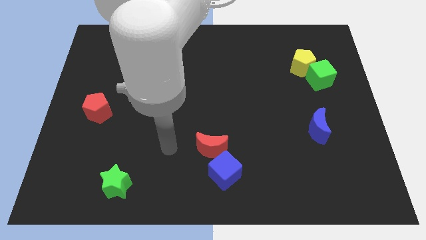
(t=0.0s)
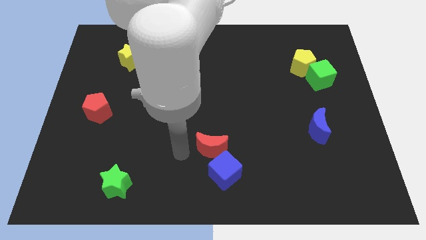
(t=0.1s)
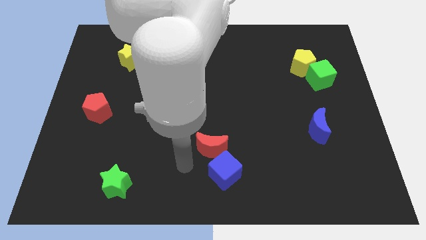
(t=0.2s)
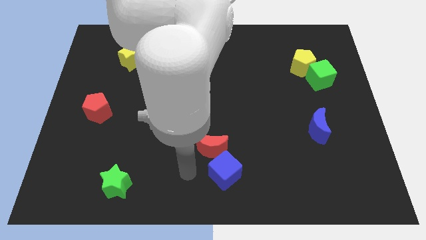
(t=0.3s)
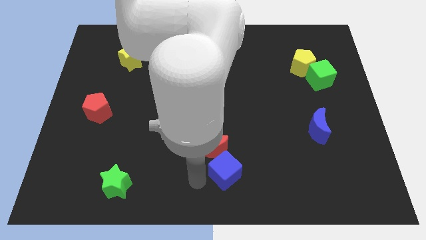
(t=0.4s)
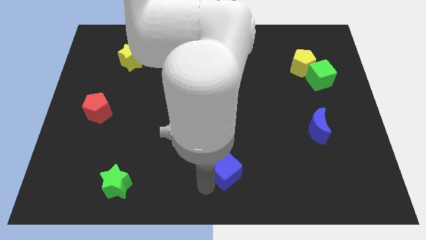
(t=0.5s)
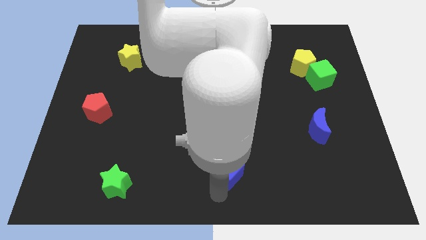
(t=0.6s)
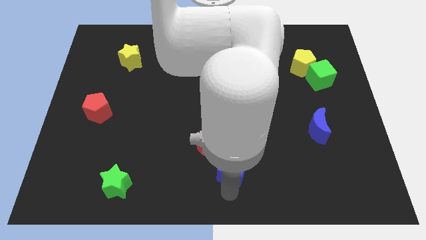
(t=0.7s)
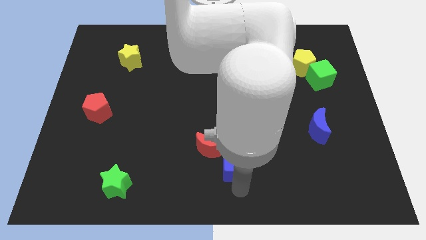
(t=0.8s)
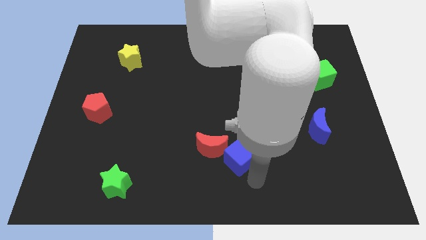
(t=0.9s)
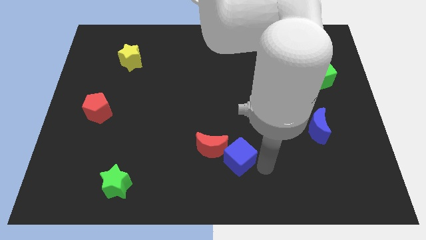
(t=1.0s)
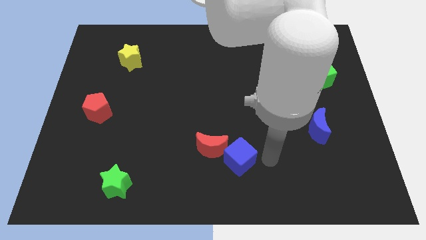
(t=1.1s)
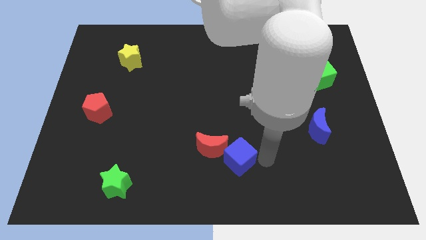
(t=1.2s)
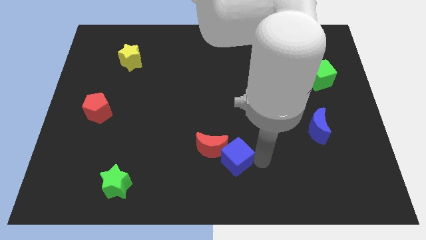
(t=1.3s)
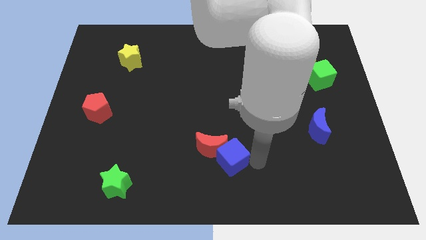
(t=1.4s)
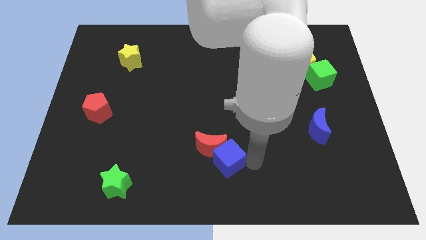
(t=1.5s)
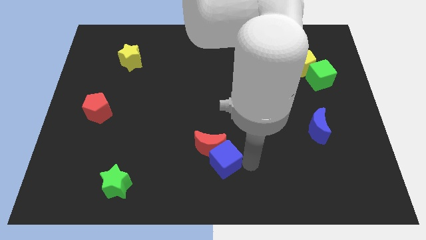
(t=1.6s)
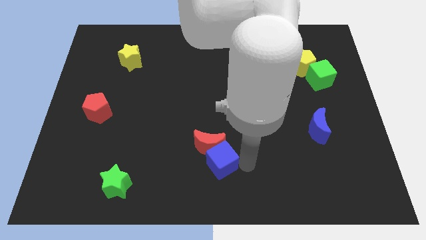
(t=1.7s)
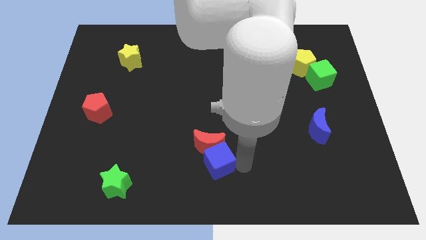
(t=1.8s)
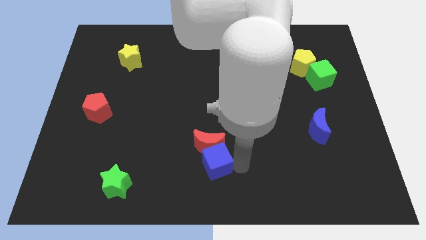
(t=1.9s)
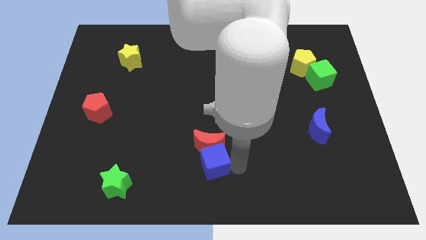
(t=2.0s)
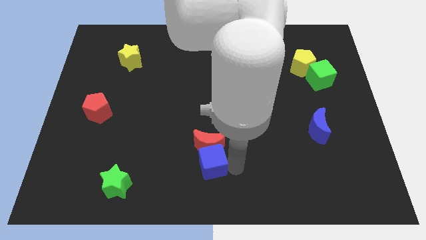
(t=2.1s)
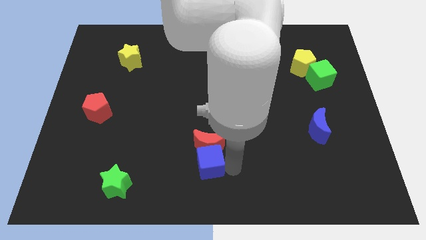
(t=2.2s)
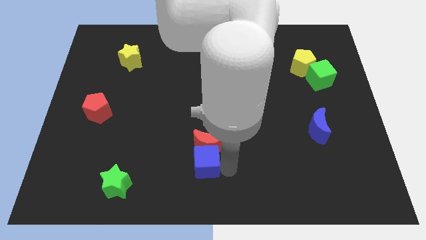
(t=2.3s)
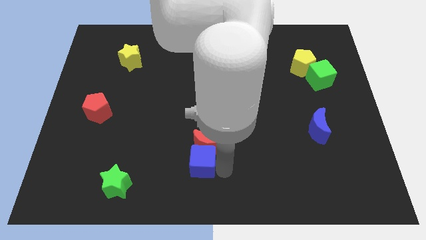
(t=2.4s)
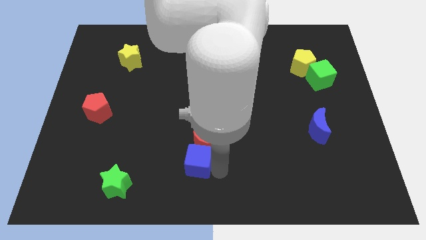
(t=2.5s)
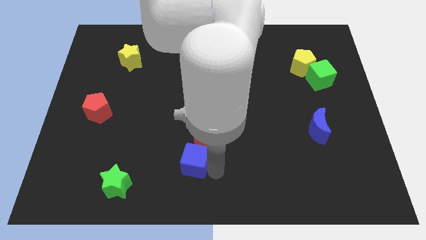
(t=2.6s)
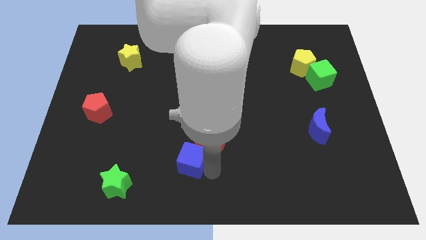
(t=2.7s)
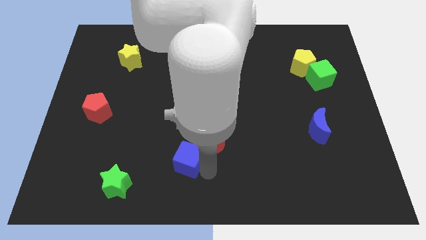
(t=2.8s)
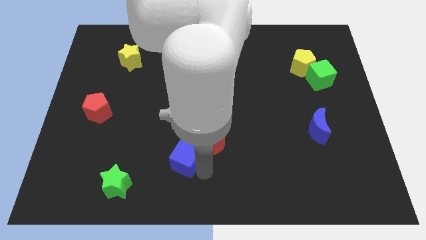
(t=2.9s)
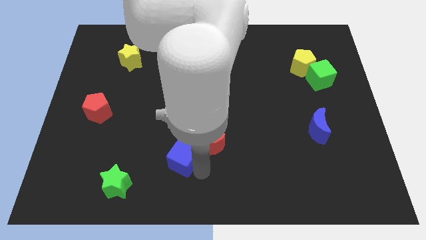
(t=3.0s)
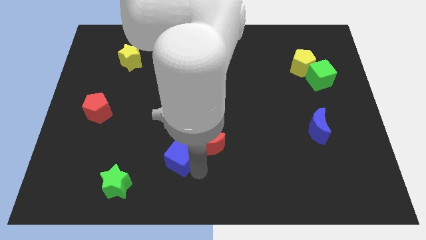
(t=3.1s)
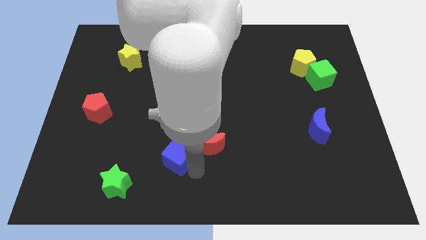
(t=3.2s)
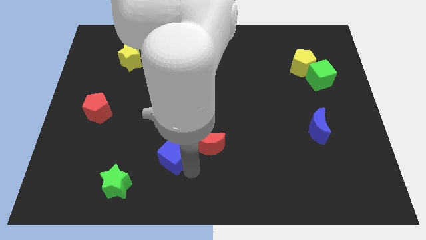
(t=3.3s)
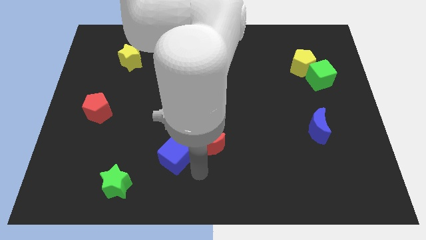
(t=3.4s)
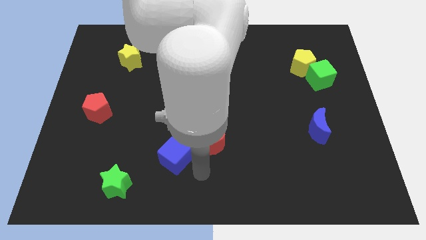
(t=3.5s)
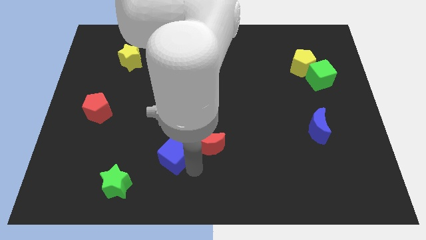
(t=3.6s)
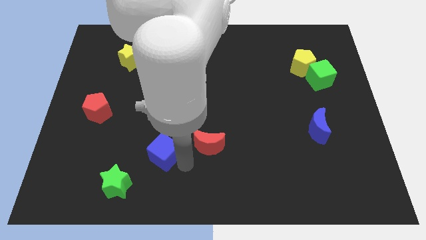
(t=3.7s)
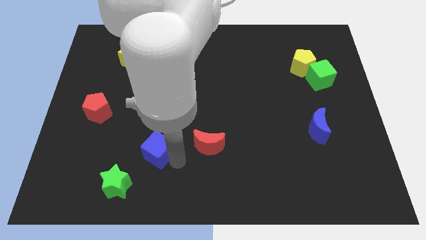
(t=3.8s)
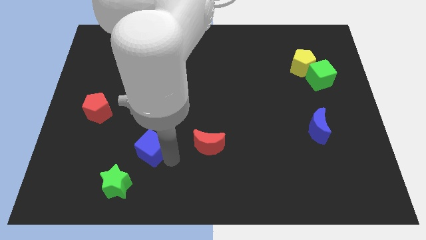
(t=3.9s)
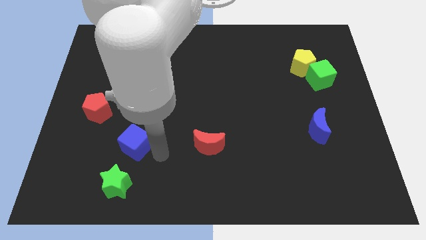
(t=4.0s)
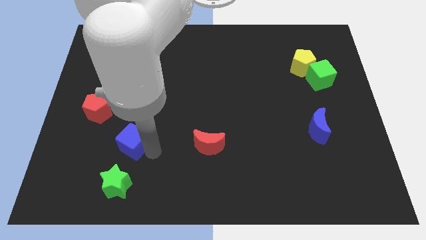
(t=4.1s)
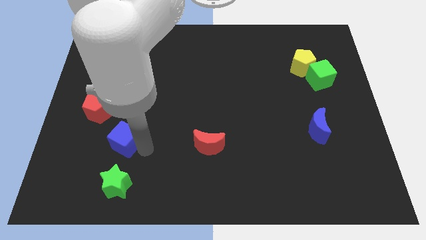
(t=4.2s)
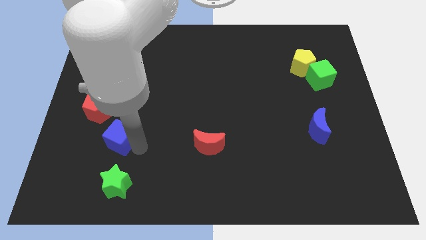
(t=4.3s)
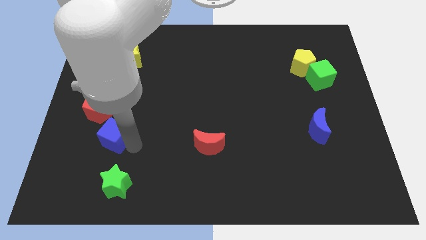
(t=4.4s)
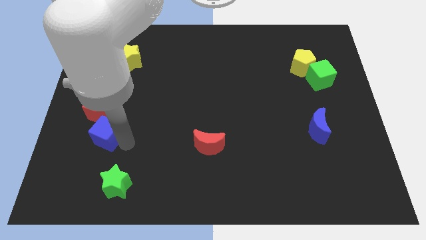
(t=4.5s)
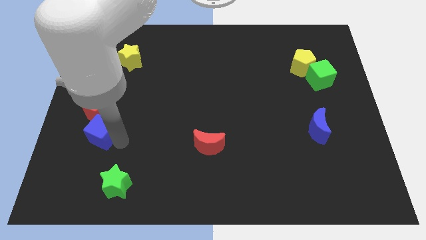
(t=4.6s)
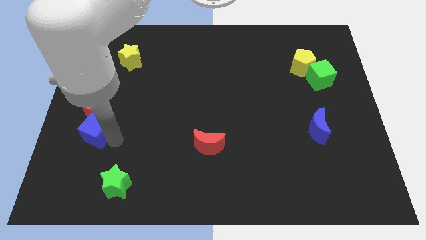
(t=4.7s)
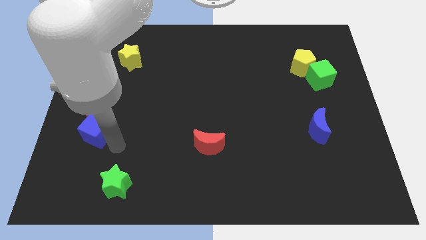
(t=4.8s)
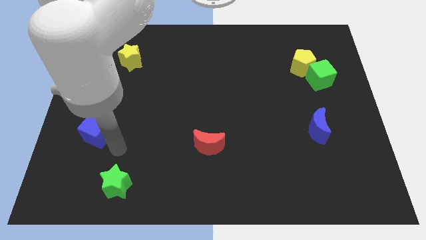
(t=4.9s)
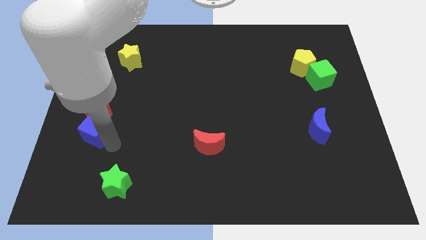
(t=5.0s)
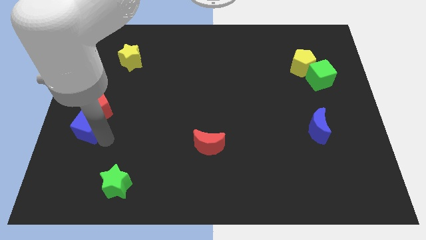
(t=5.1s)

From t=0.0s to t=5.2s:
push the blue cube to the left side of the board

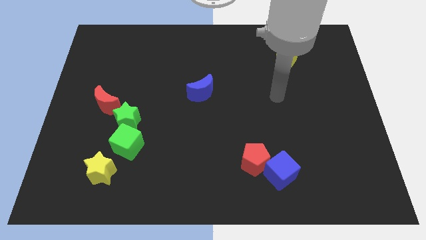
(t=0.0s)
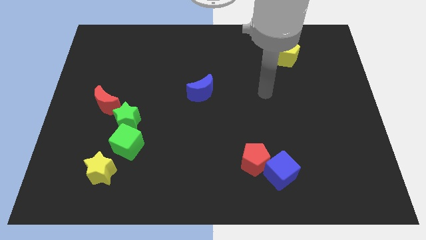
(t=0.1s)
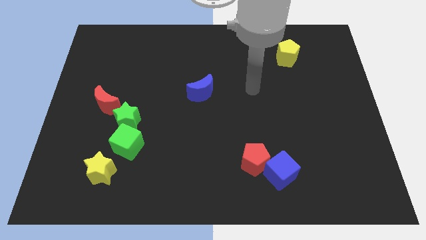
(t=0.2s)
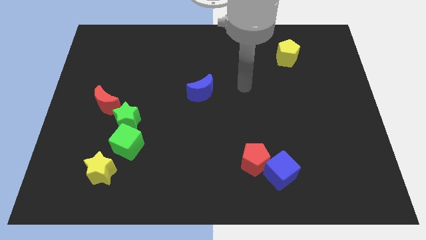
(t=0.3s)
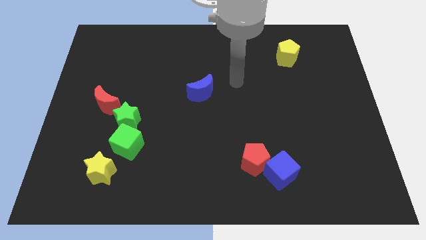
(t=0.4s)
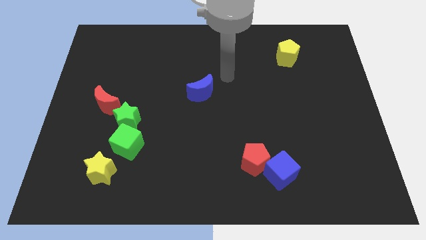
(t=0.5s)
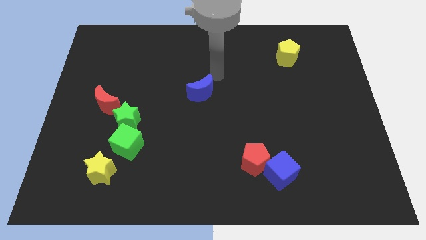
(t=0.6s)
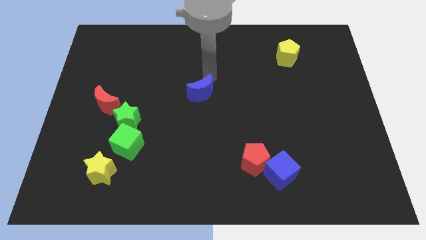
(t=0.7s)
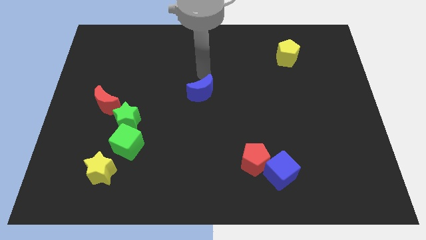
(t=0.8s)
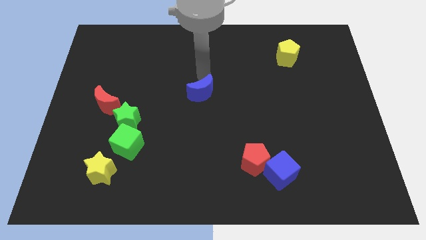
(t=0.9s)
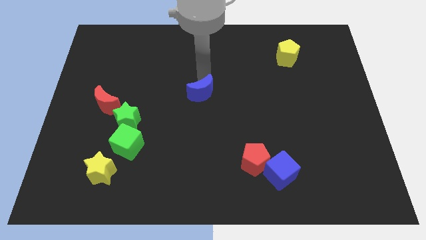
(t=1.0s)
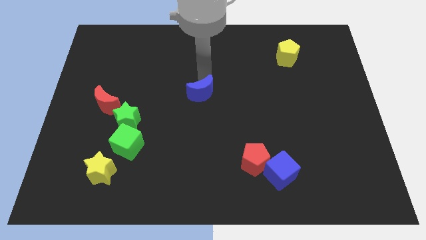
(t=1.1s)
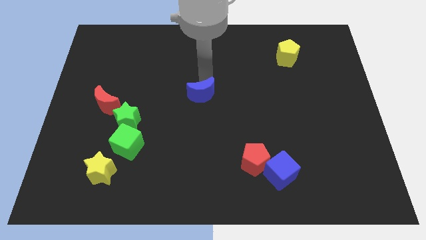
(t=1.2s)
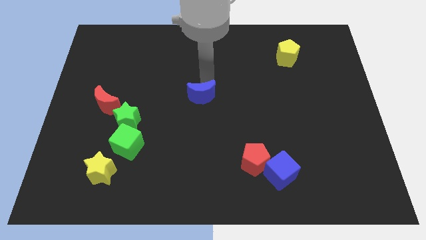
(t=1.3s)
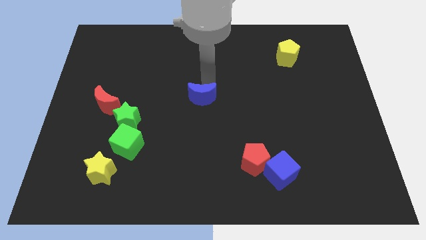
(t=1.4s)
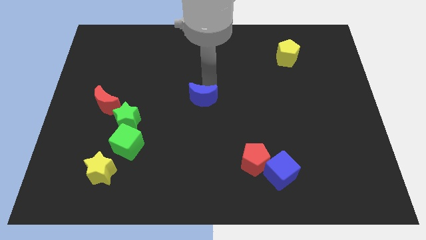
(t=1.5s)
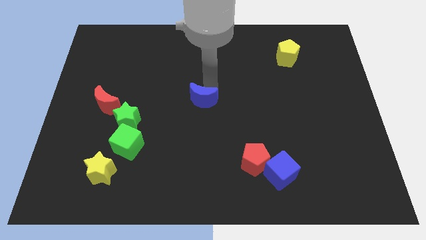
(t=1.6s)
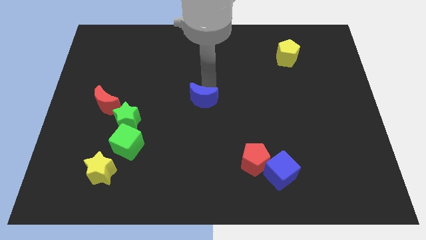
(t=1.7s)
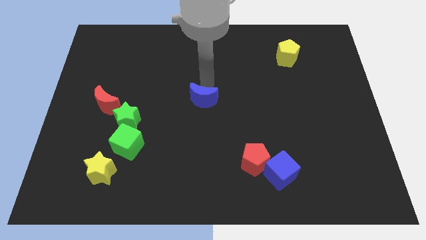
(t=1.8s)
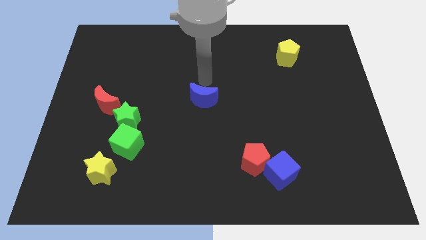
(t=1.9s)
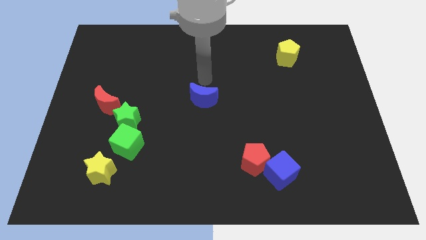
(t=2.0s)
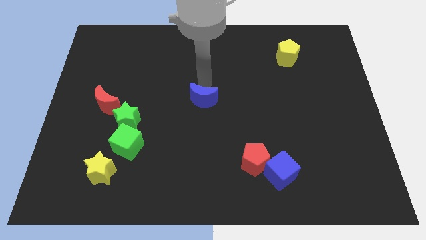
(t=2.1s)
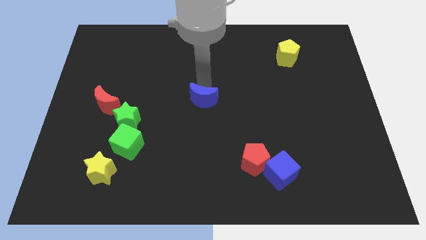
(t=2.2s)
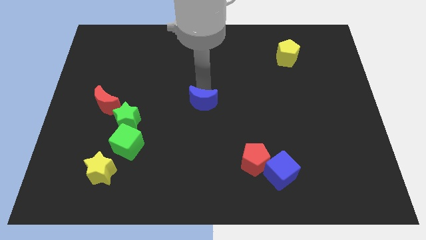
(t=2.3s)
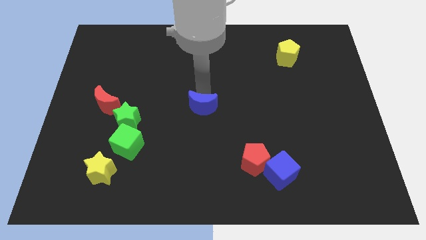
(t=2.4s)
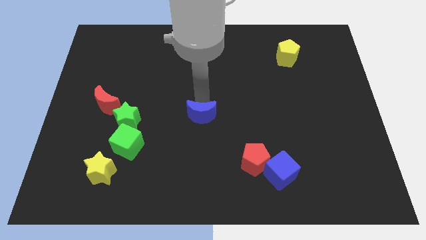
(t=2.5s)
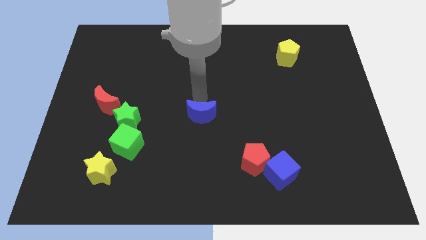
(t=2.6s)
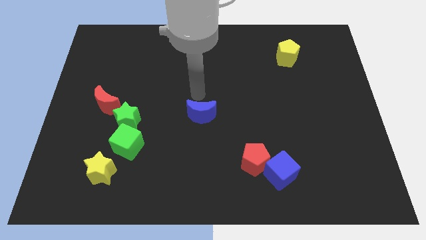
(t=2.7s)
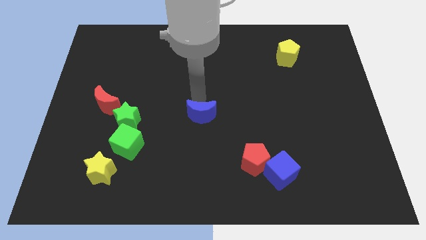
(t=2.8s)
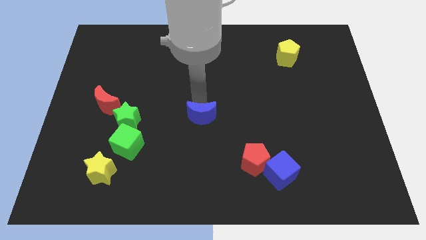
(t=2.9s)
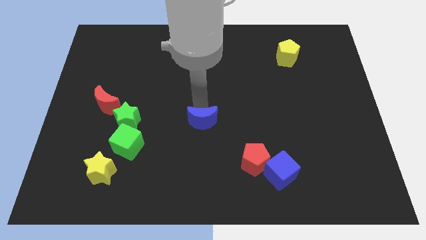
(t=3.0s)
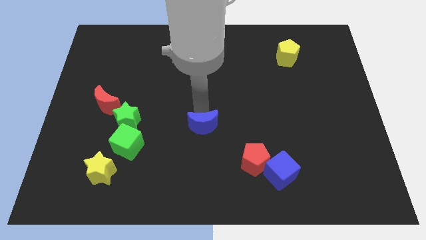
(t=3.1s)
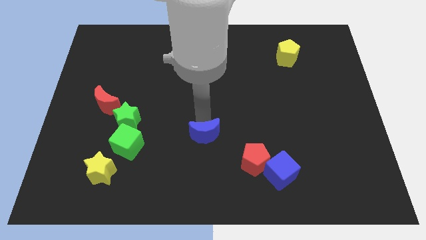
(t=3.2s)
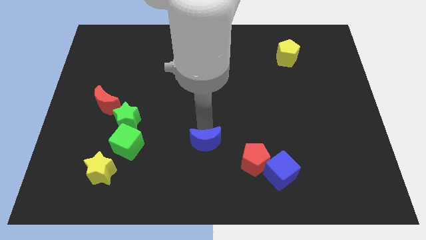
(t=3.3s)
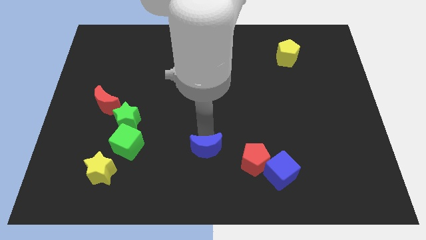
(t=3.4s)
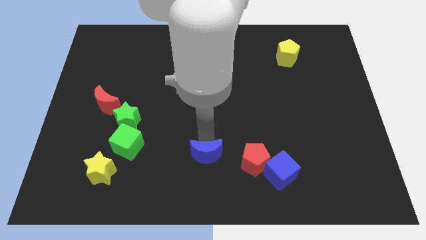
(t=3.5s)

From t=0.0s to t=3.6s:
push the blue moon to the bottom side
